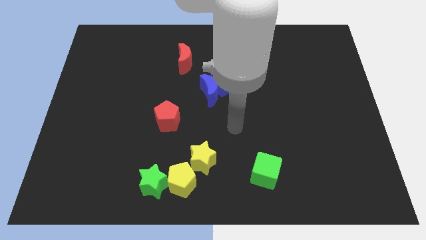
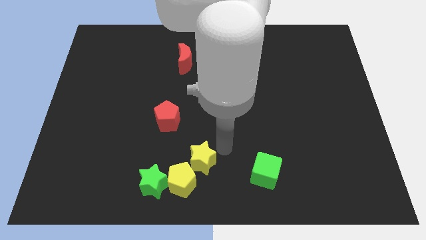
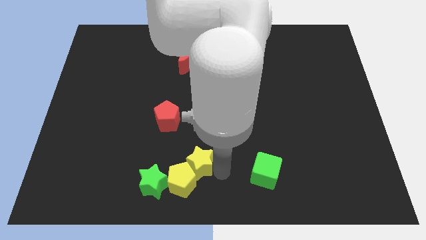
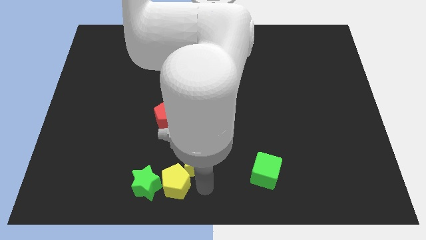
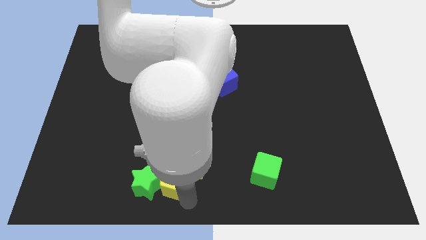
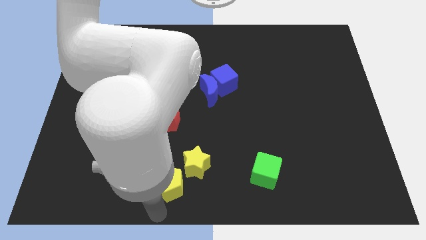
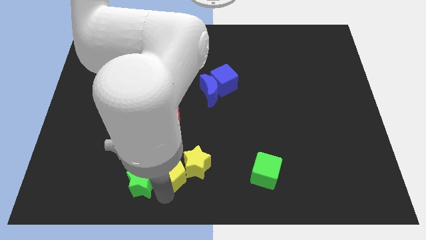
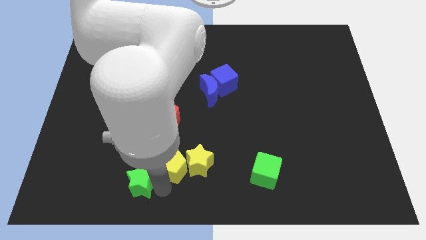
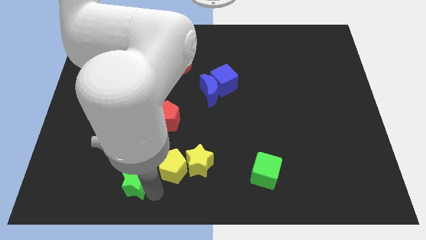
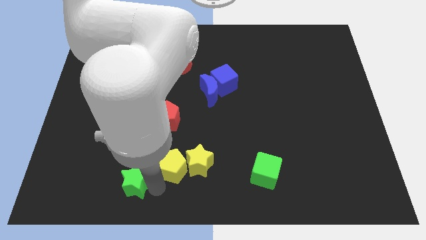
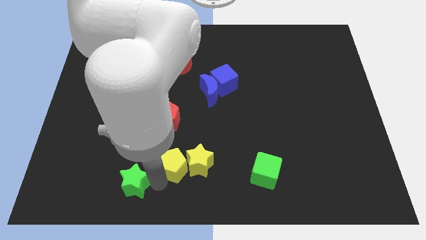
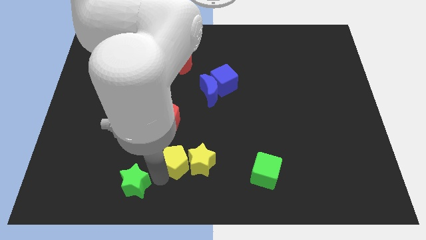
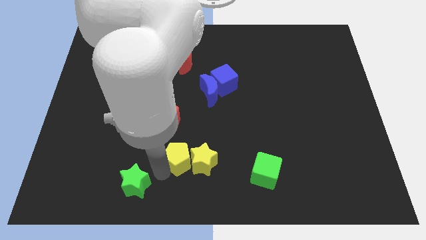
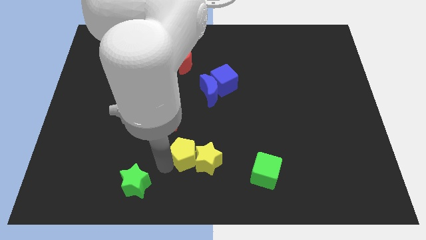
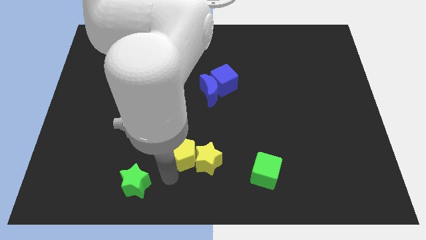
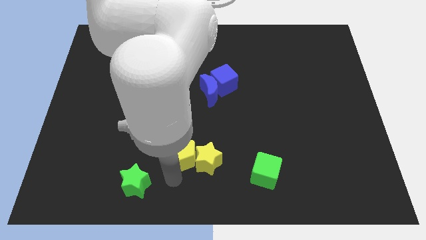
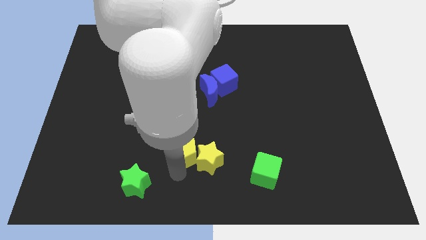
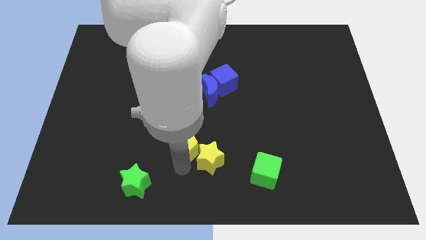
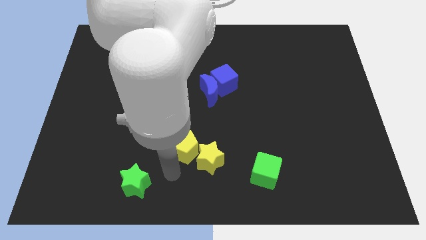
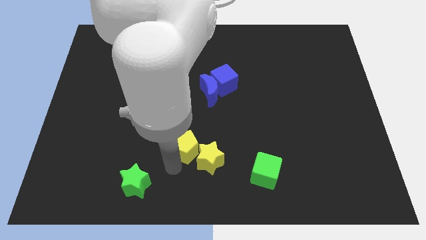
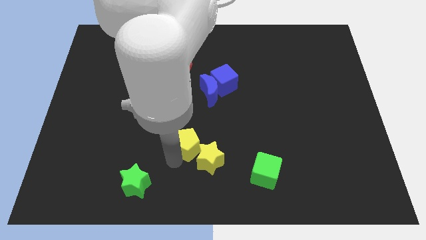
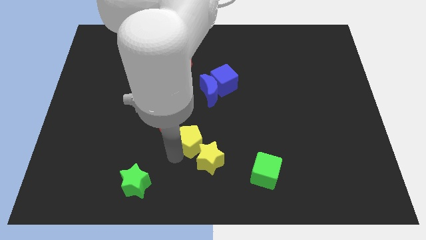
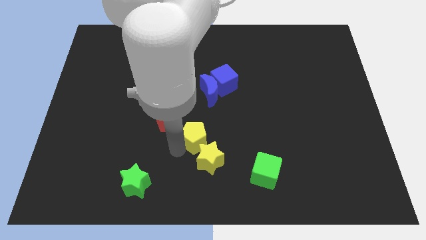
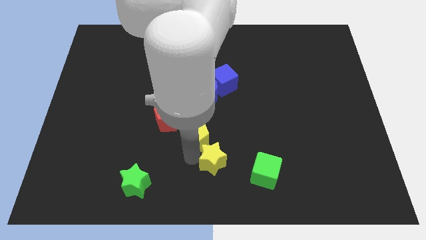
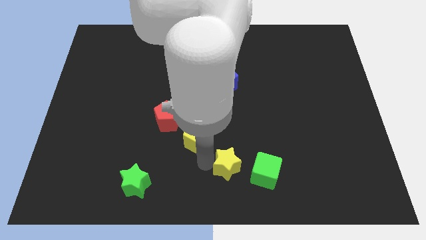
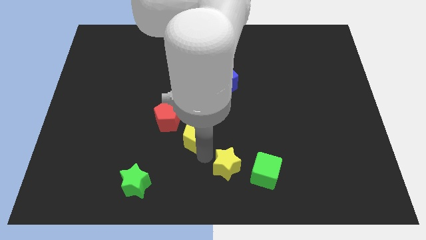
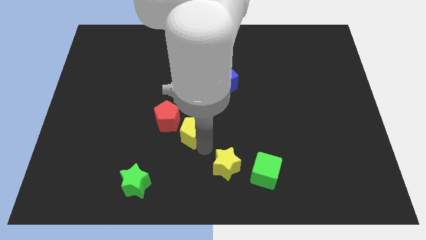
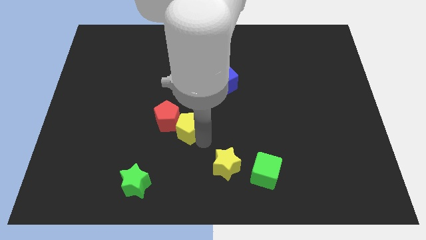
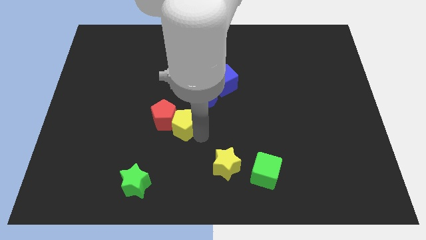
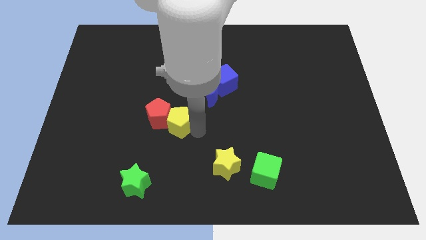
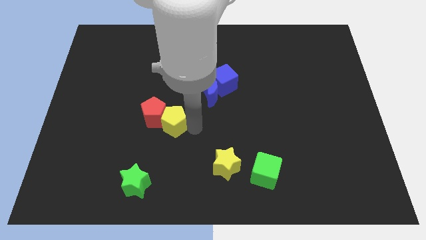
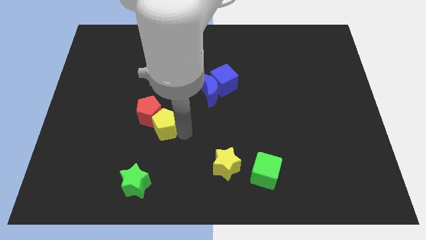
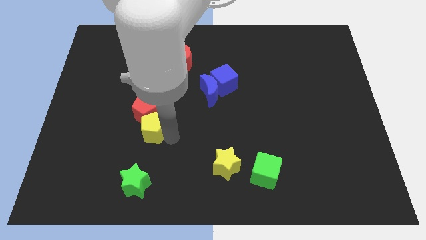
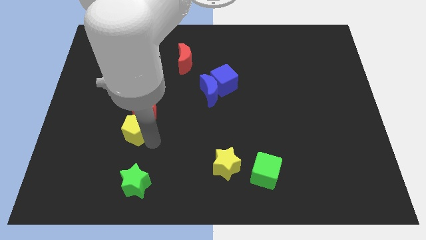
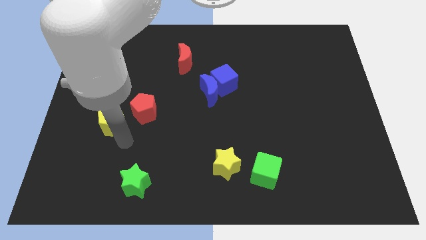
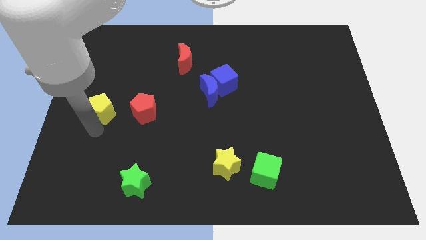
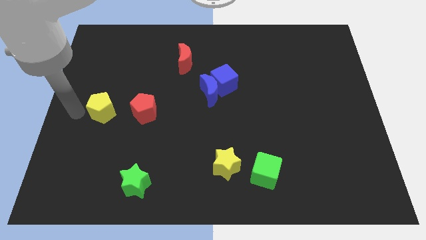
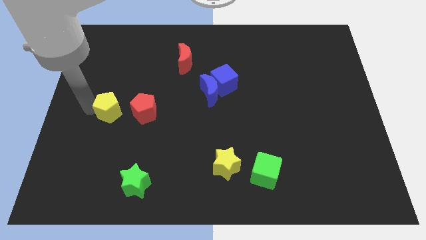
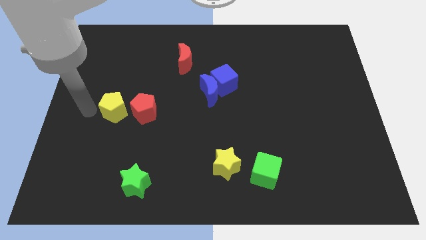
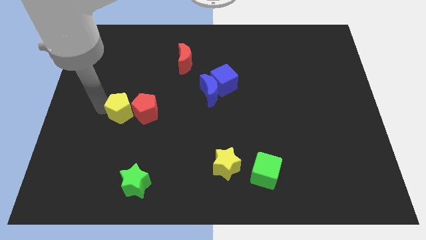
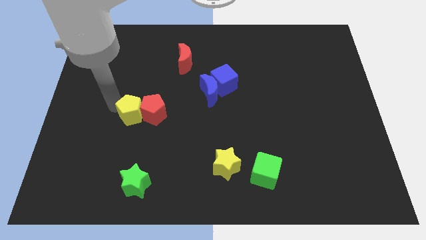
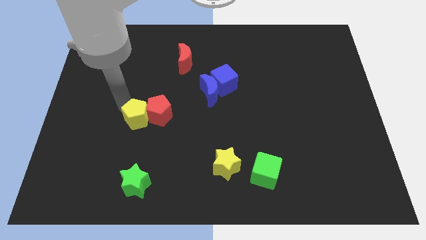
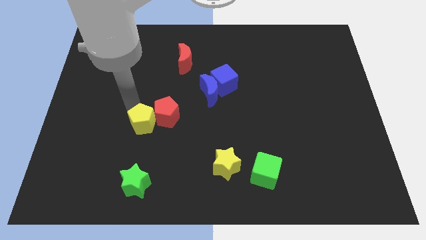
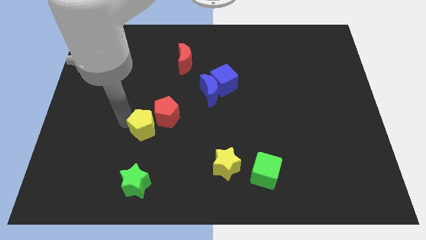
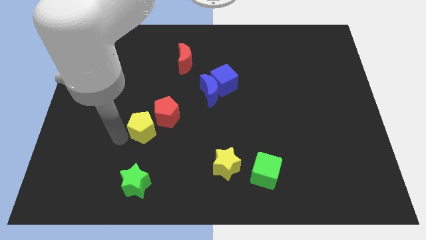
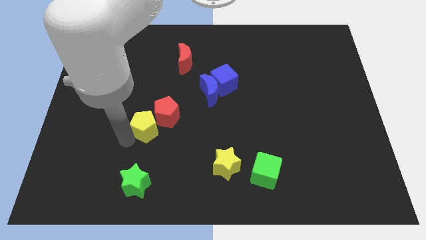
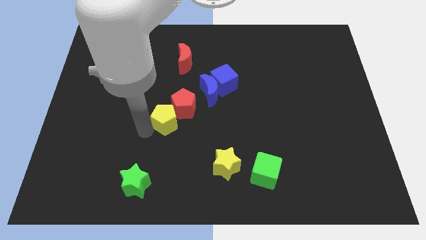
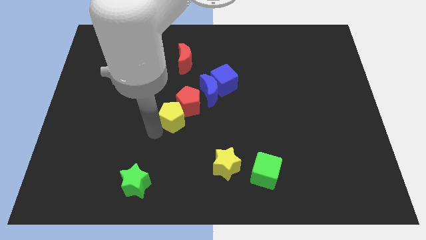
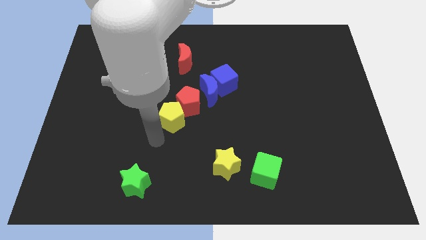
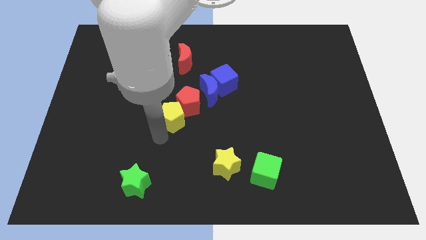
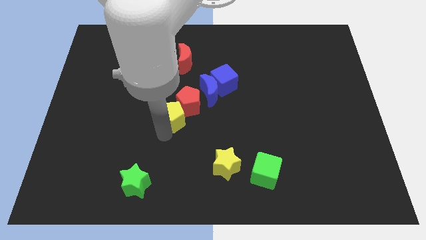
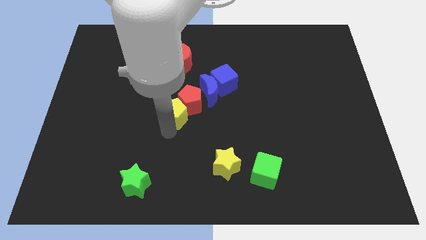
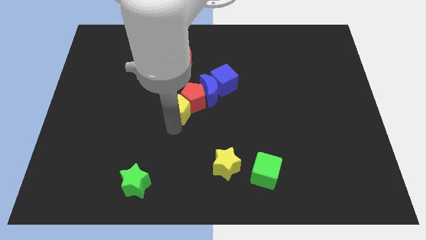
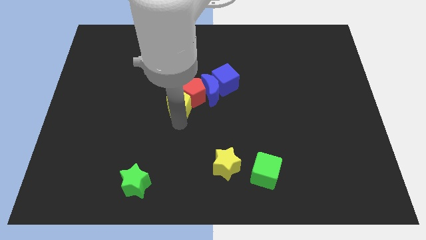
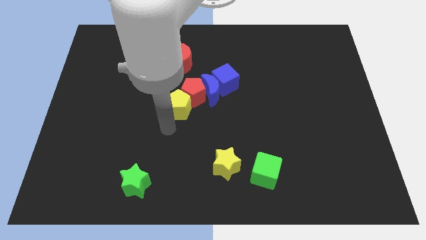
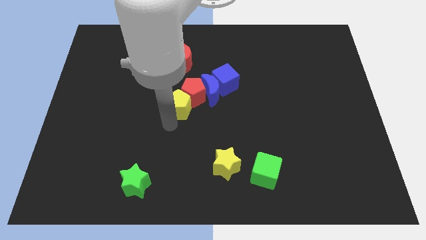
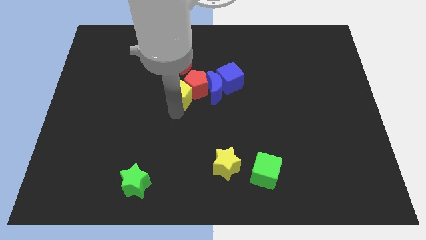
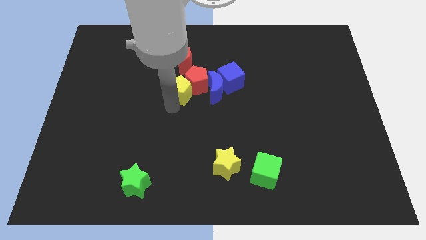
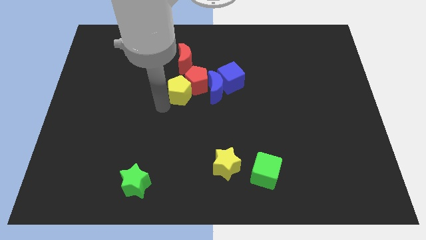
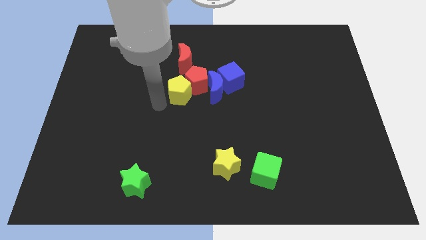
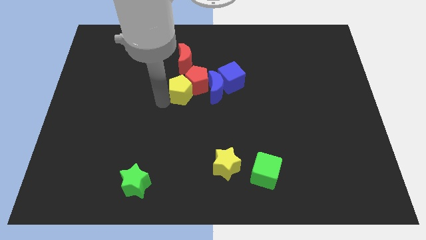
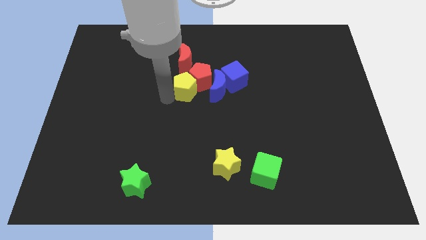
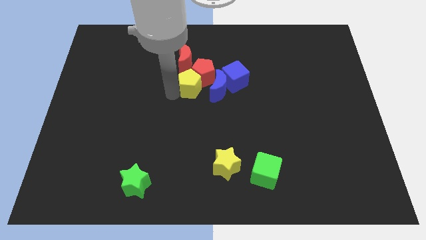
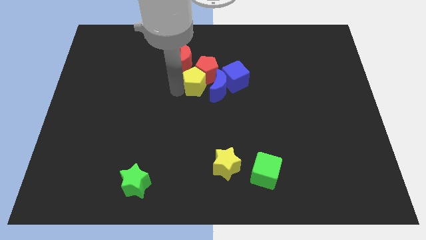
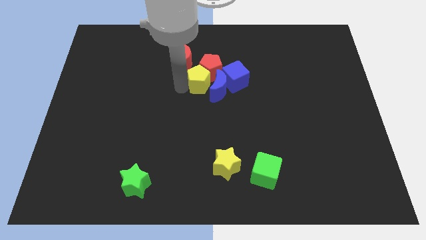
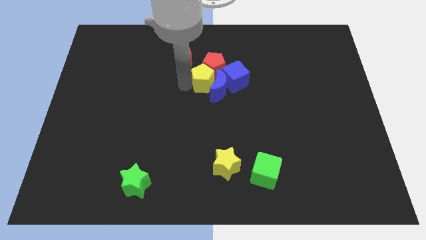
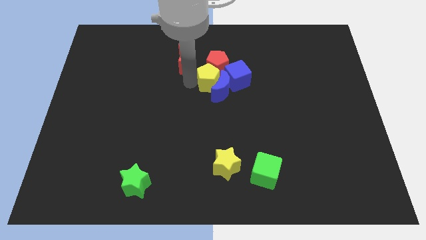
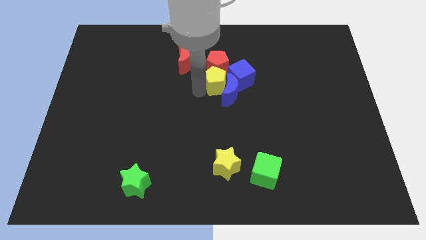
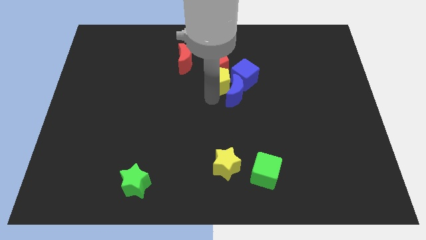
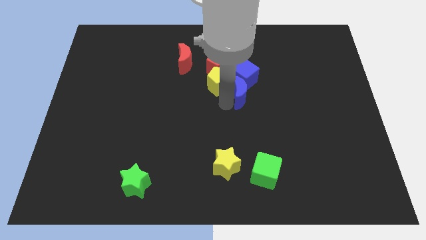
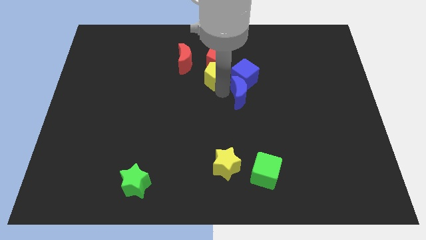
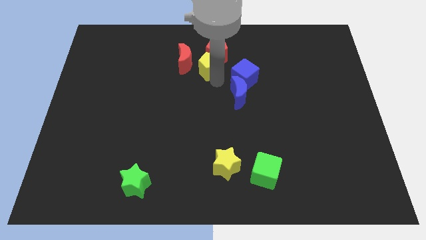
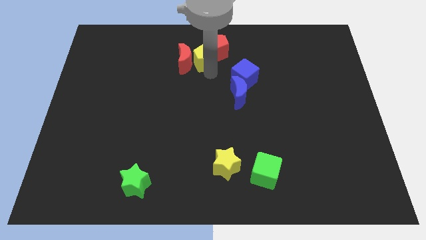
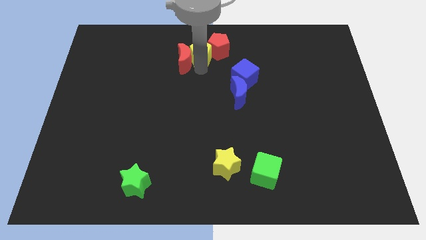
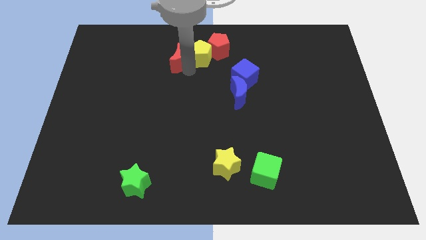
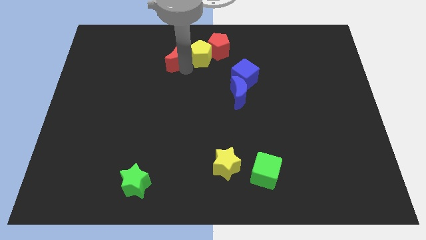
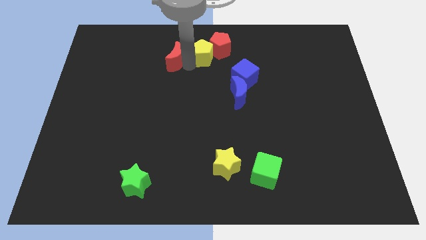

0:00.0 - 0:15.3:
slide the yellow pentagon to the top
